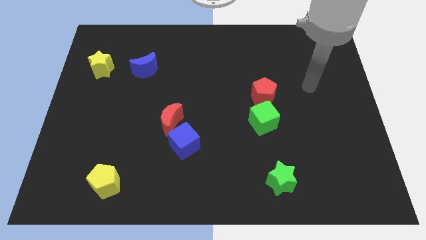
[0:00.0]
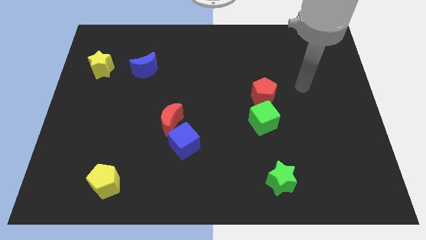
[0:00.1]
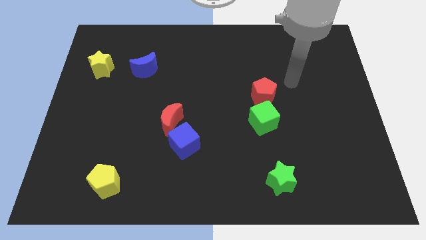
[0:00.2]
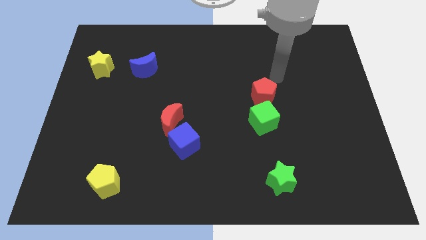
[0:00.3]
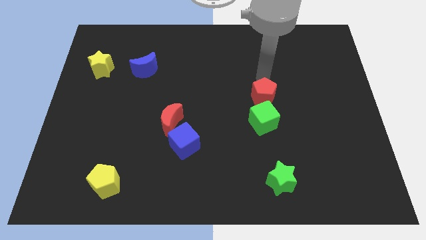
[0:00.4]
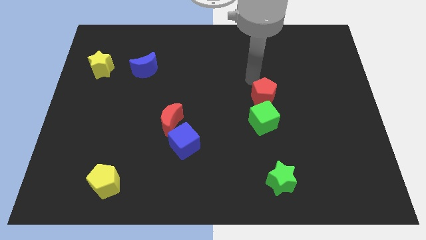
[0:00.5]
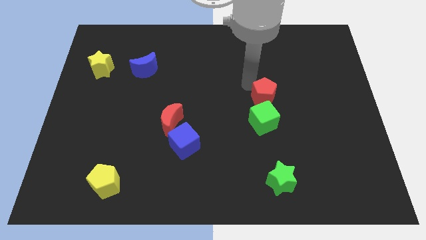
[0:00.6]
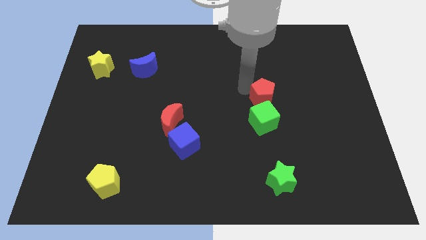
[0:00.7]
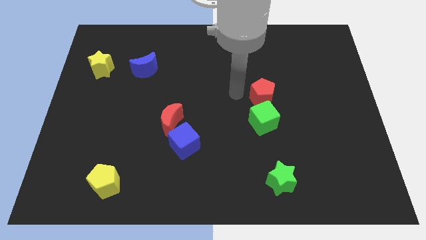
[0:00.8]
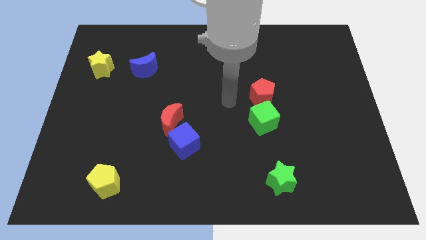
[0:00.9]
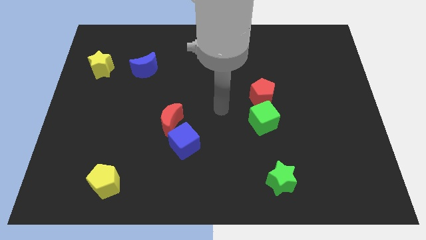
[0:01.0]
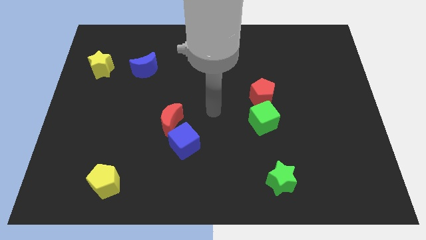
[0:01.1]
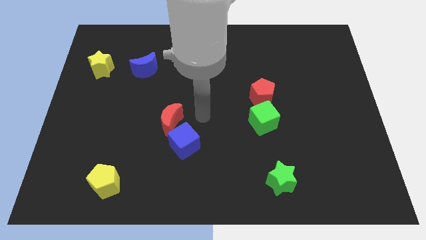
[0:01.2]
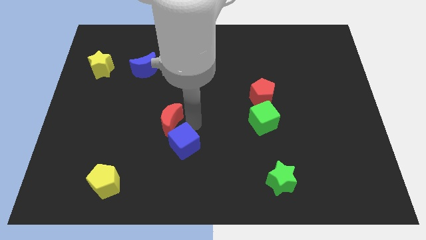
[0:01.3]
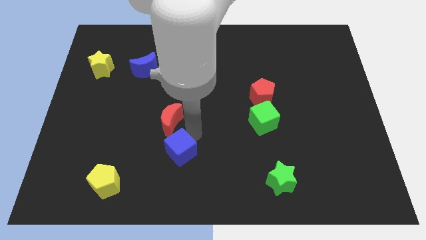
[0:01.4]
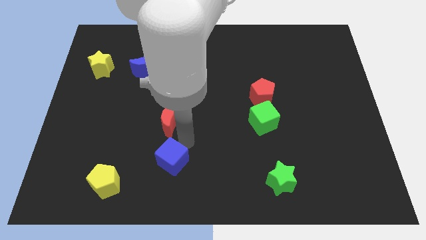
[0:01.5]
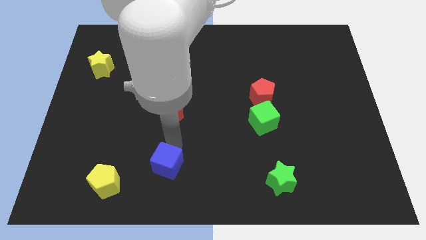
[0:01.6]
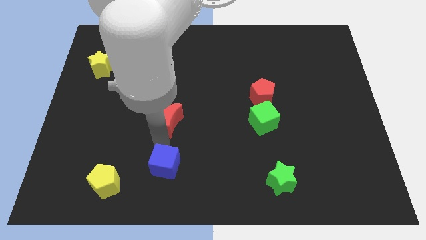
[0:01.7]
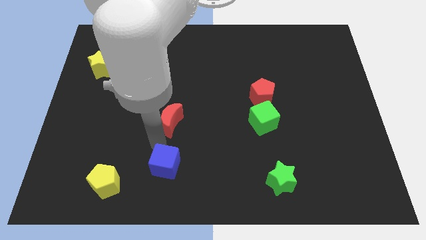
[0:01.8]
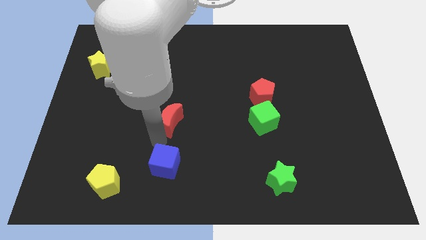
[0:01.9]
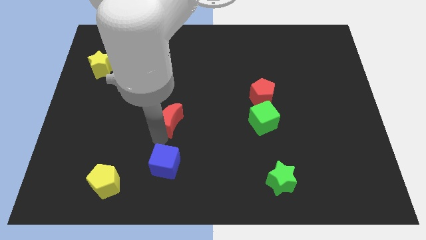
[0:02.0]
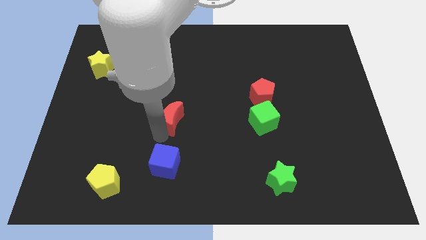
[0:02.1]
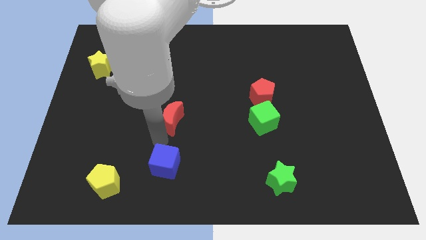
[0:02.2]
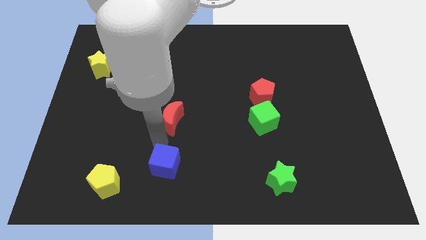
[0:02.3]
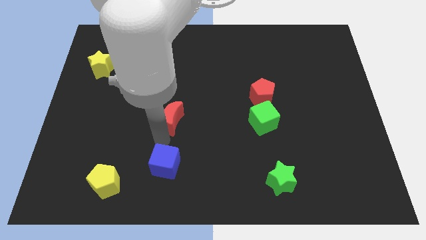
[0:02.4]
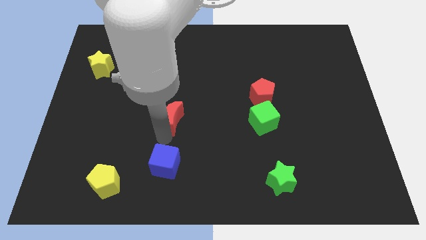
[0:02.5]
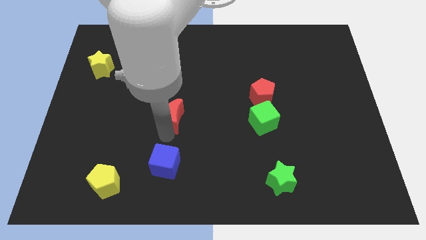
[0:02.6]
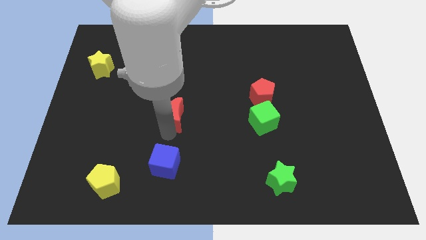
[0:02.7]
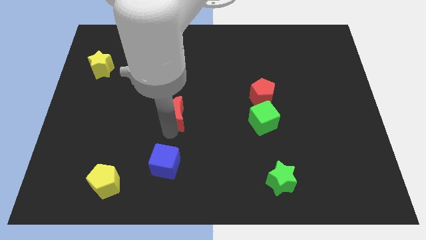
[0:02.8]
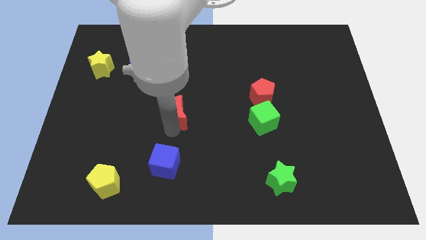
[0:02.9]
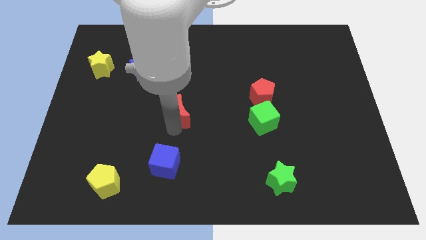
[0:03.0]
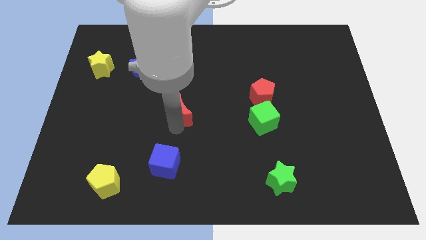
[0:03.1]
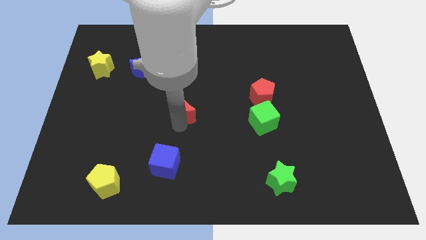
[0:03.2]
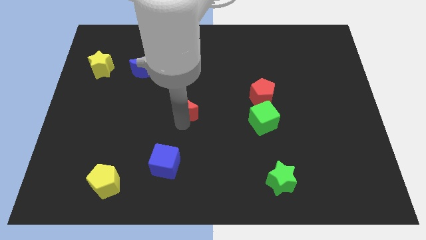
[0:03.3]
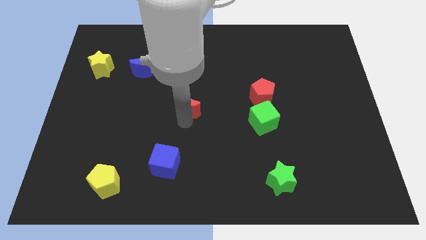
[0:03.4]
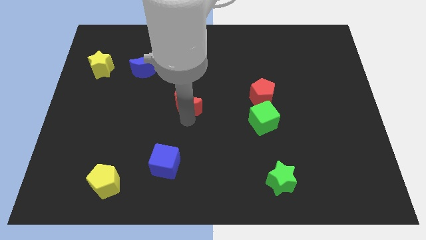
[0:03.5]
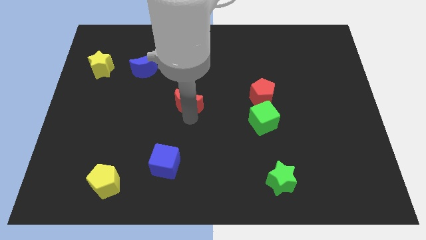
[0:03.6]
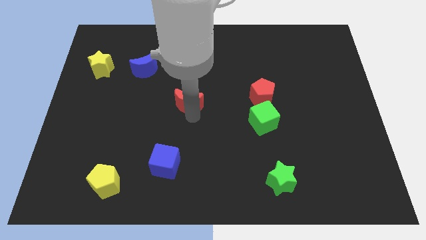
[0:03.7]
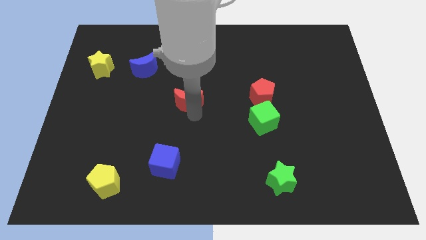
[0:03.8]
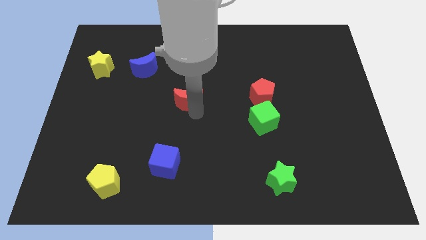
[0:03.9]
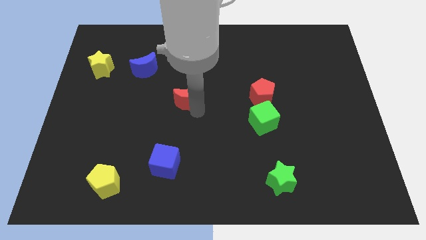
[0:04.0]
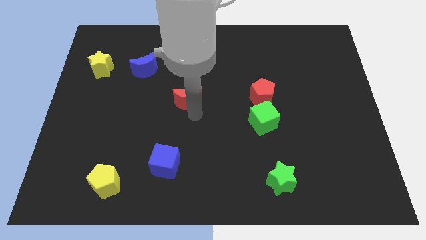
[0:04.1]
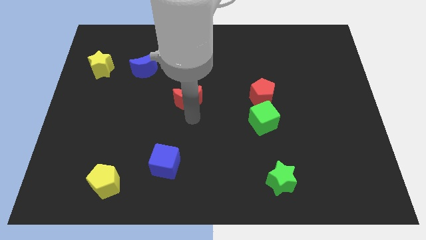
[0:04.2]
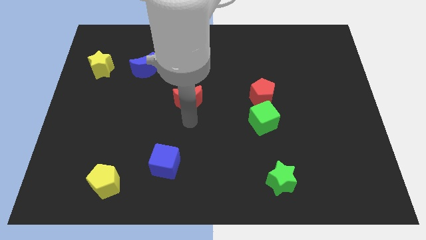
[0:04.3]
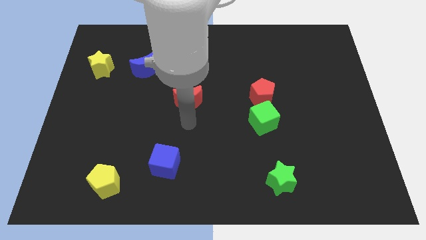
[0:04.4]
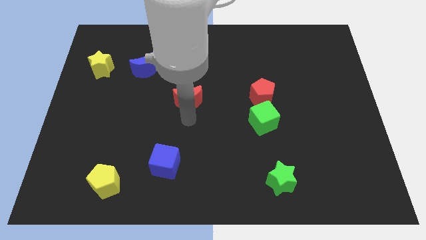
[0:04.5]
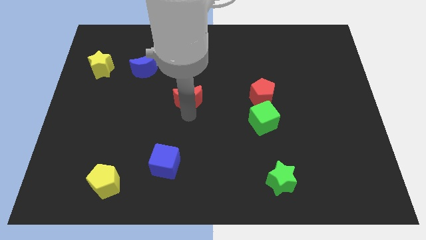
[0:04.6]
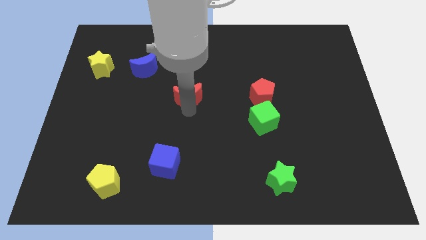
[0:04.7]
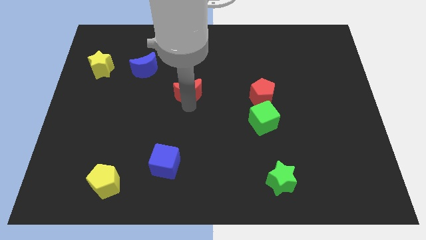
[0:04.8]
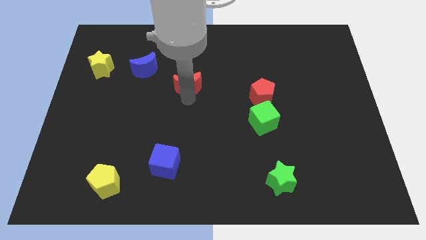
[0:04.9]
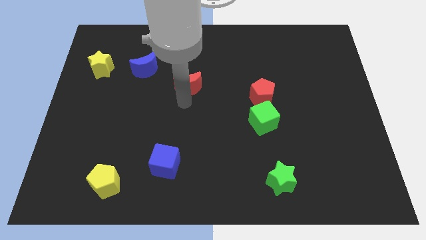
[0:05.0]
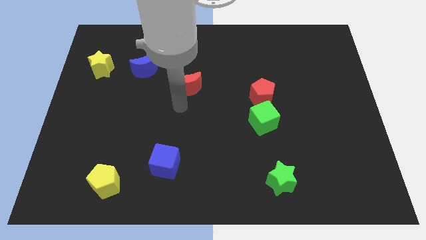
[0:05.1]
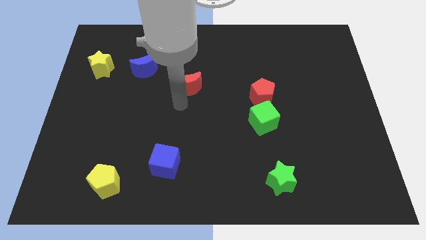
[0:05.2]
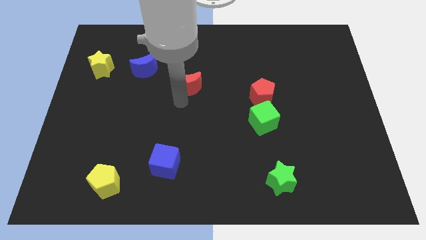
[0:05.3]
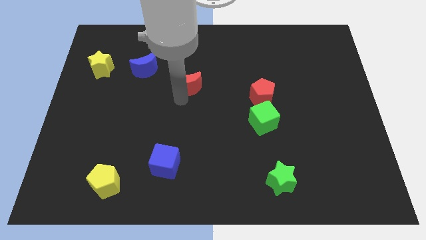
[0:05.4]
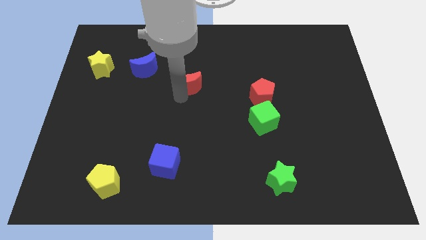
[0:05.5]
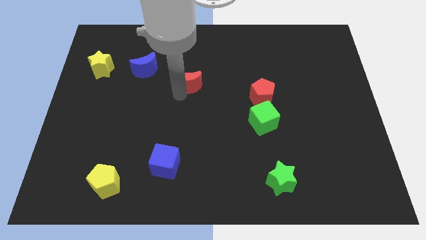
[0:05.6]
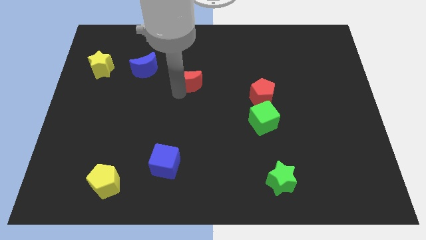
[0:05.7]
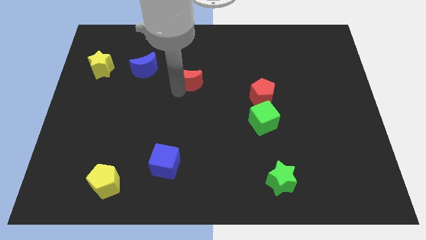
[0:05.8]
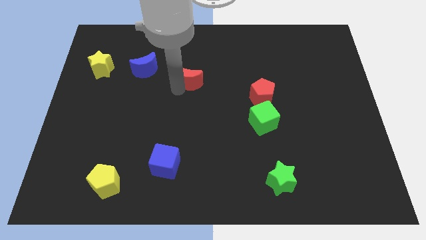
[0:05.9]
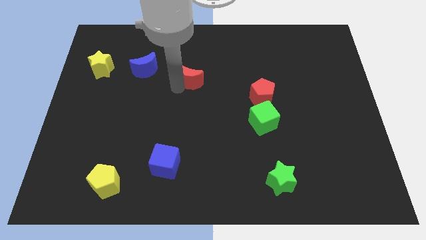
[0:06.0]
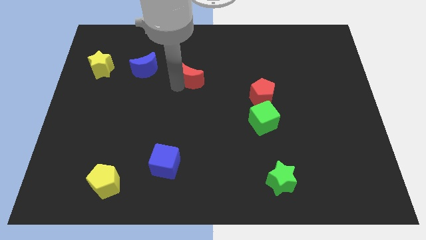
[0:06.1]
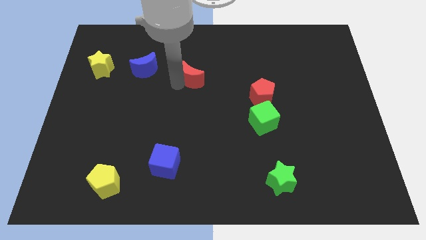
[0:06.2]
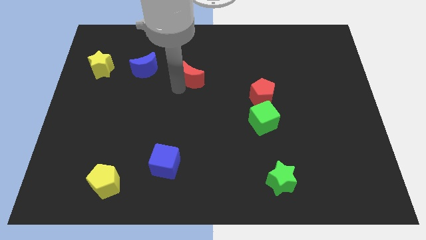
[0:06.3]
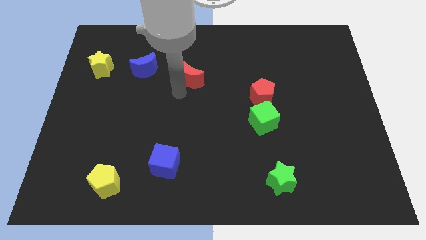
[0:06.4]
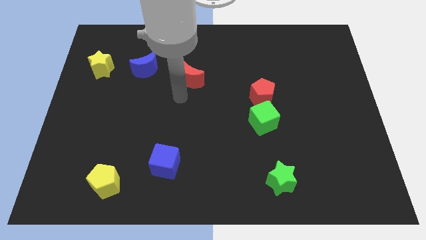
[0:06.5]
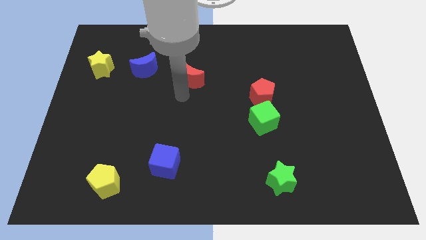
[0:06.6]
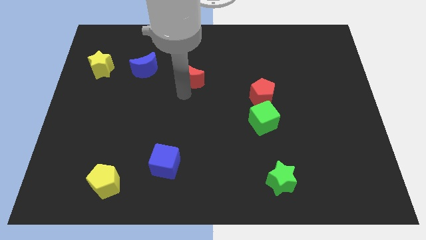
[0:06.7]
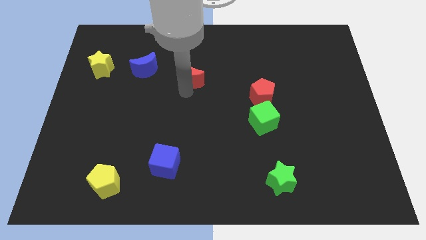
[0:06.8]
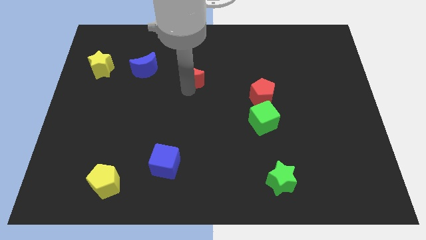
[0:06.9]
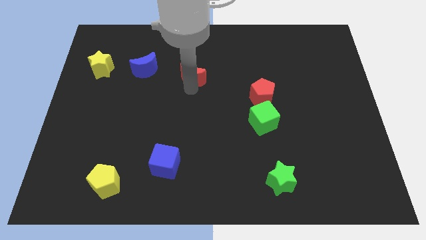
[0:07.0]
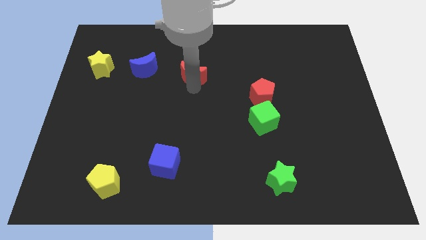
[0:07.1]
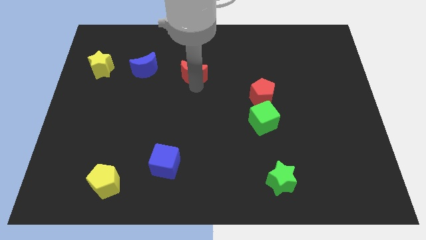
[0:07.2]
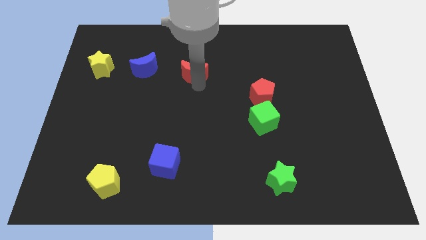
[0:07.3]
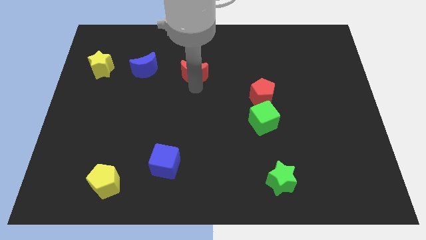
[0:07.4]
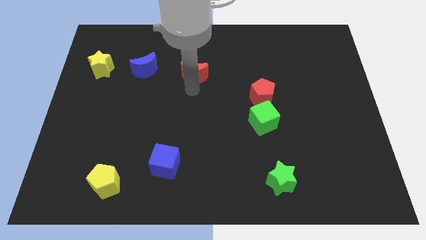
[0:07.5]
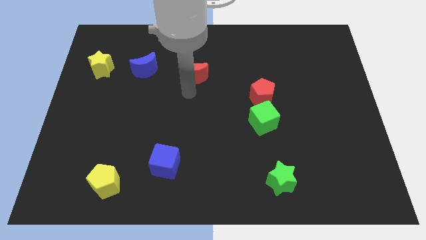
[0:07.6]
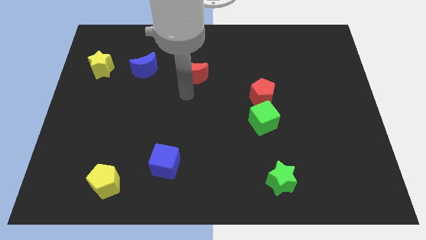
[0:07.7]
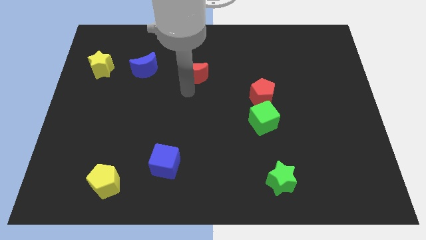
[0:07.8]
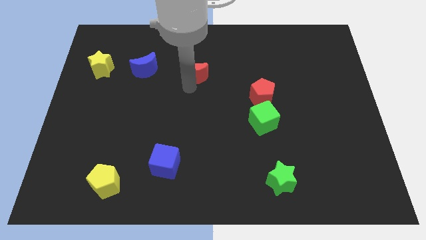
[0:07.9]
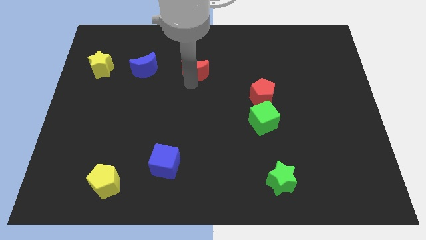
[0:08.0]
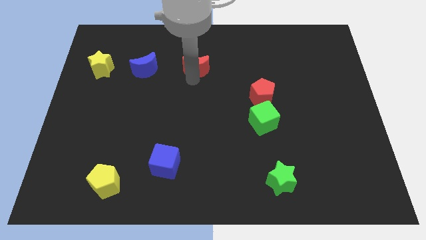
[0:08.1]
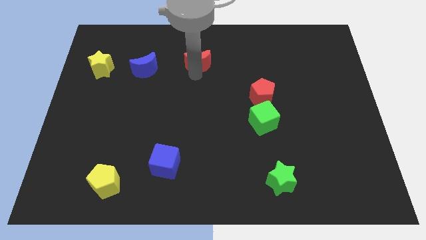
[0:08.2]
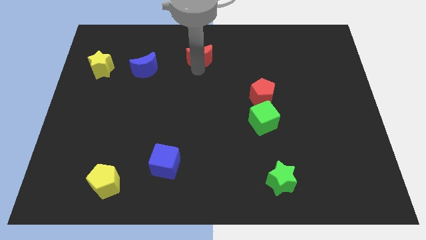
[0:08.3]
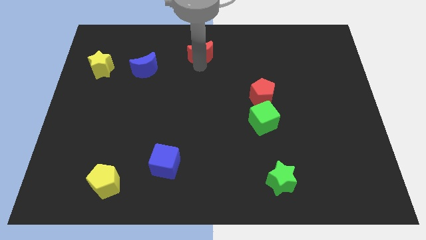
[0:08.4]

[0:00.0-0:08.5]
put the red moon to the top
